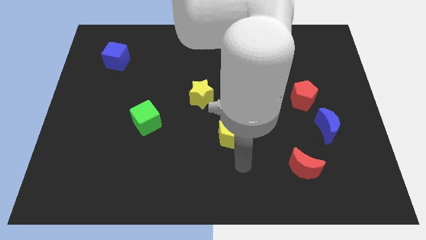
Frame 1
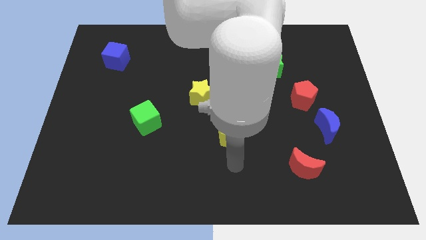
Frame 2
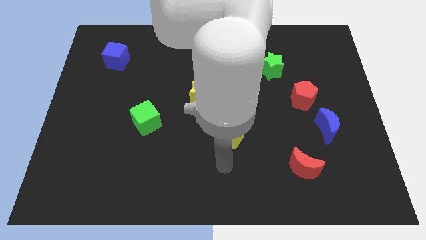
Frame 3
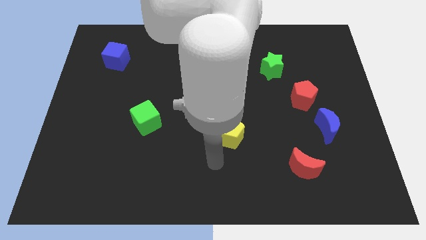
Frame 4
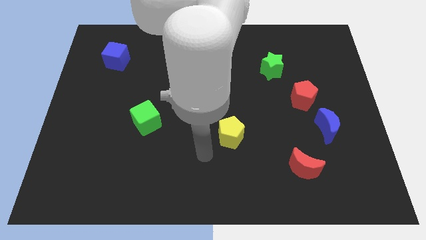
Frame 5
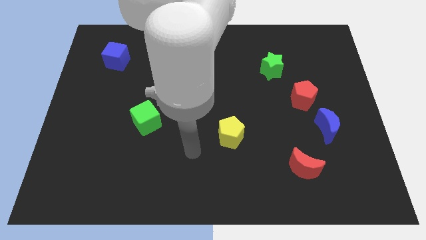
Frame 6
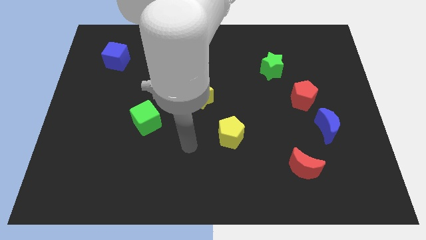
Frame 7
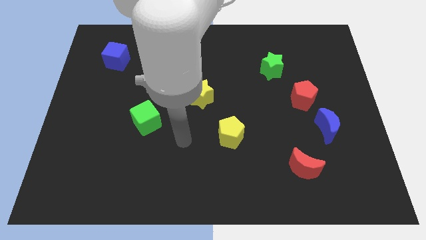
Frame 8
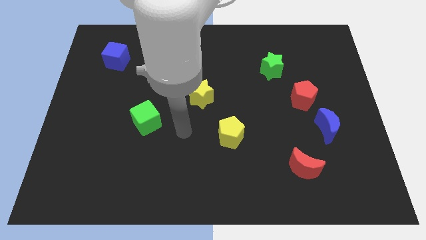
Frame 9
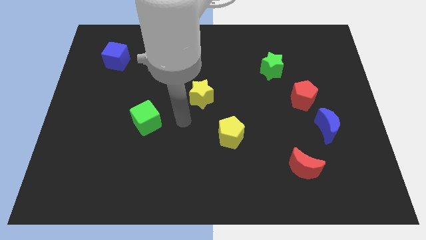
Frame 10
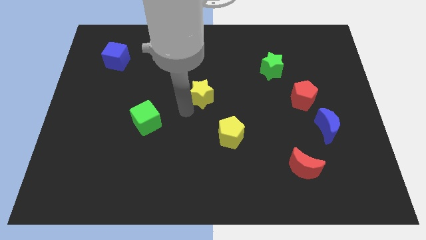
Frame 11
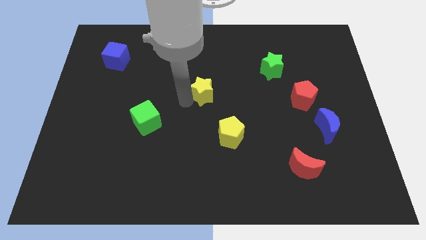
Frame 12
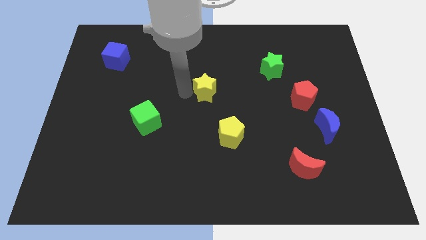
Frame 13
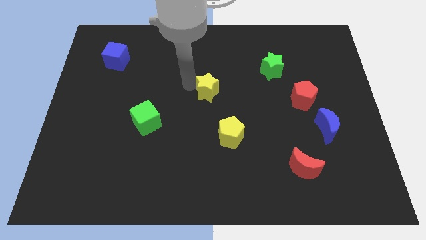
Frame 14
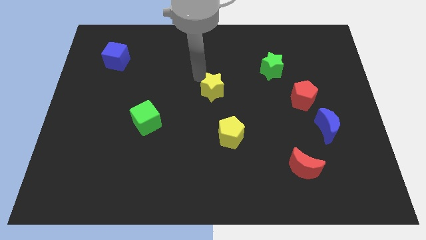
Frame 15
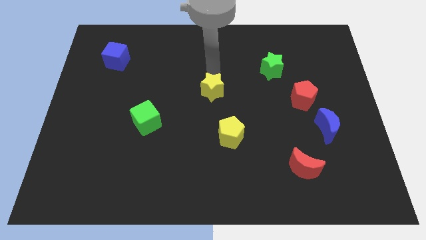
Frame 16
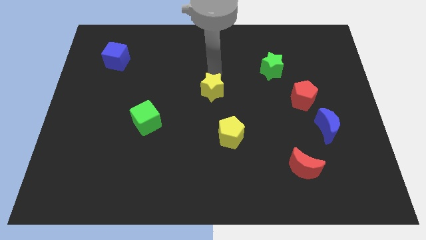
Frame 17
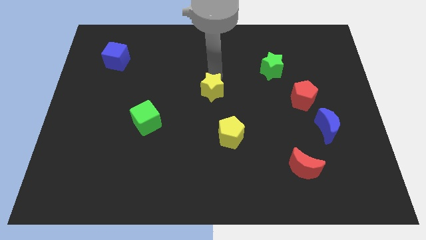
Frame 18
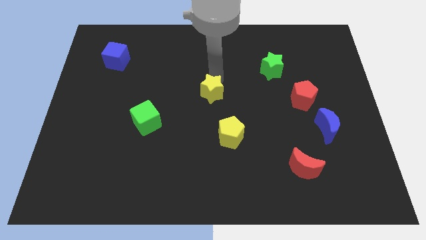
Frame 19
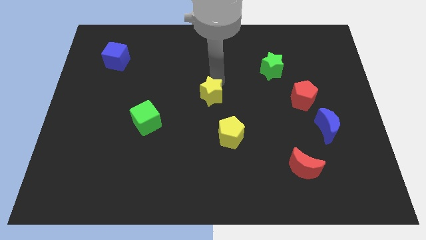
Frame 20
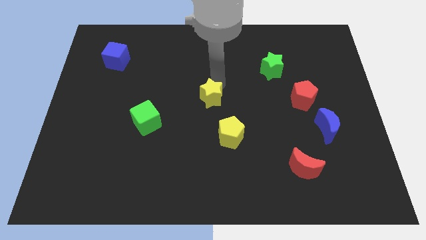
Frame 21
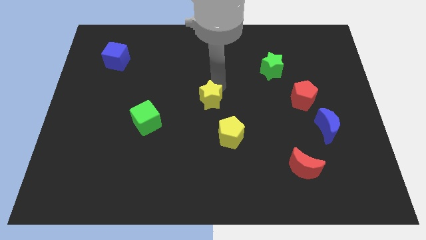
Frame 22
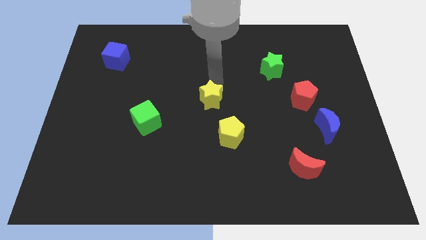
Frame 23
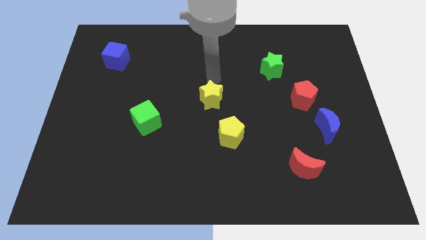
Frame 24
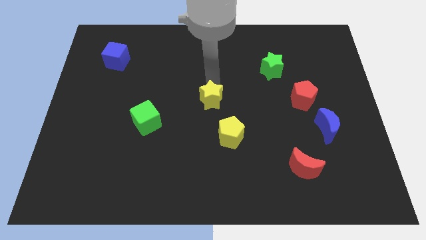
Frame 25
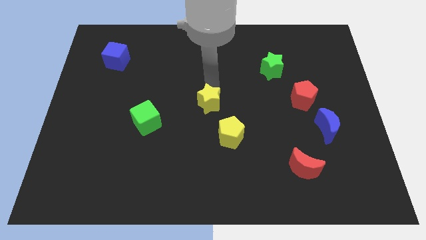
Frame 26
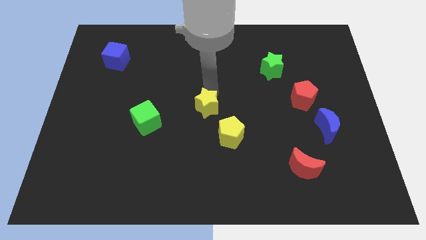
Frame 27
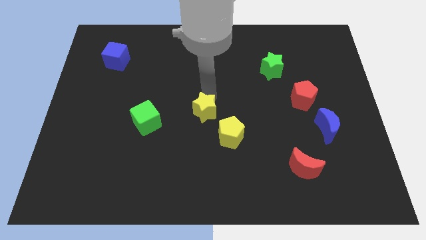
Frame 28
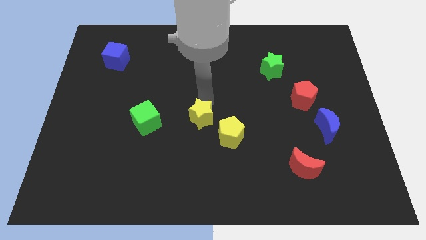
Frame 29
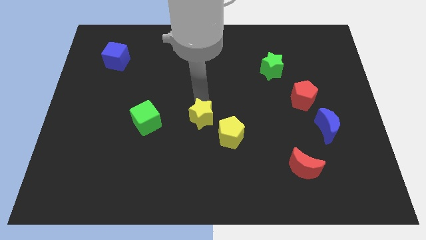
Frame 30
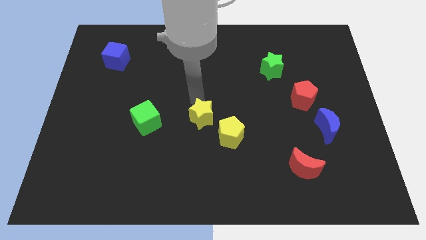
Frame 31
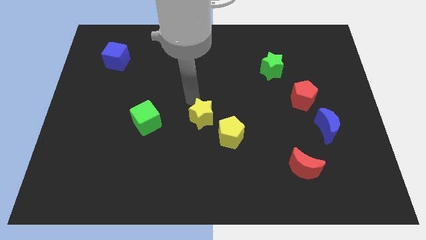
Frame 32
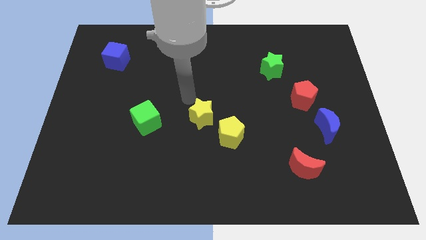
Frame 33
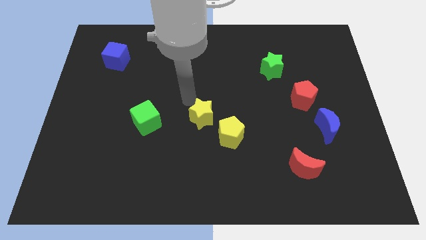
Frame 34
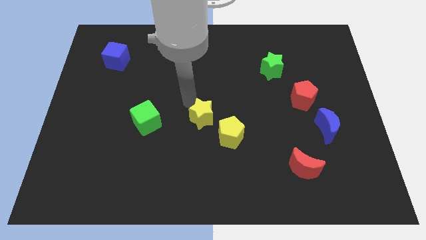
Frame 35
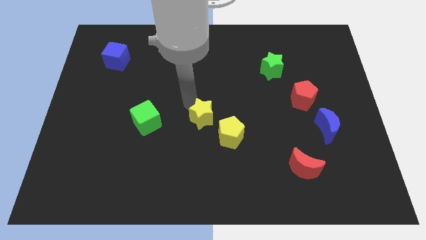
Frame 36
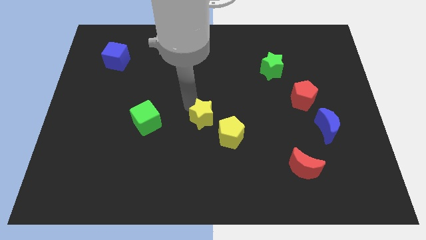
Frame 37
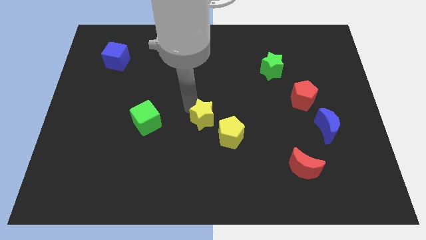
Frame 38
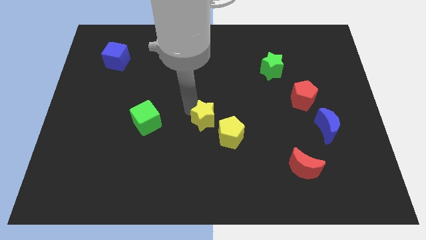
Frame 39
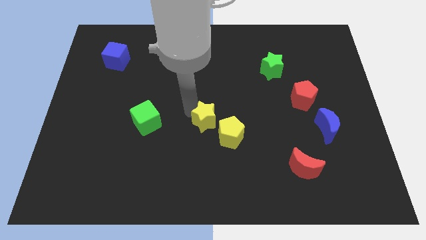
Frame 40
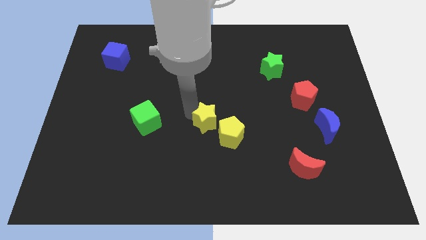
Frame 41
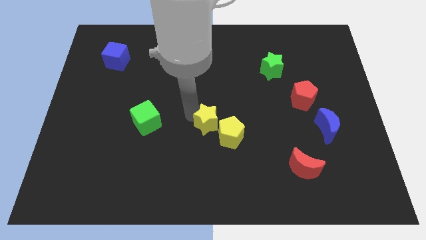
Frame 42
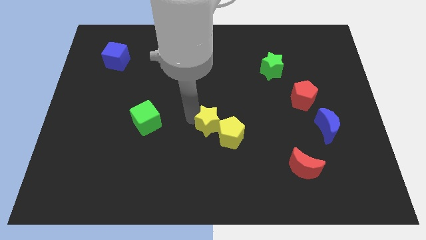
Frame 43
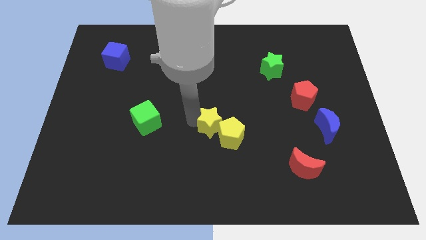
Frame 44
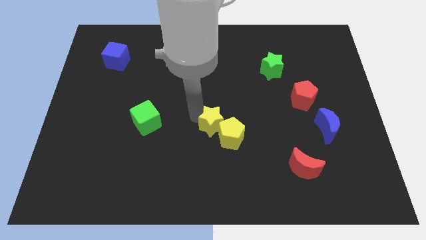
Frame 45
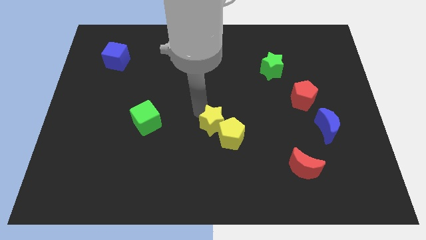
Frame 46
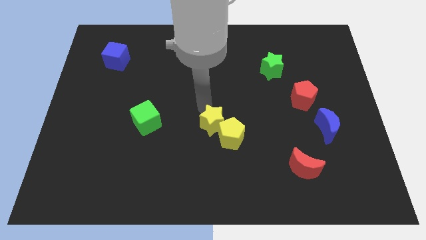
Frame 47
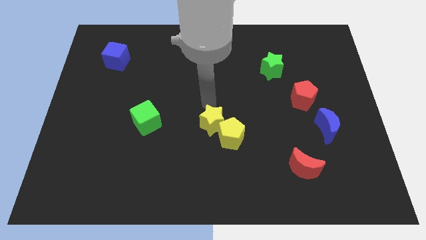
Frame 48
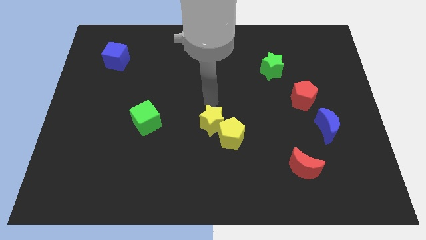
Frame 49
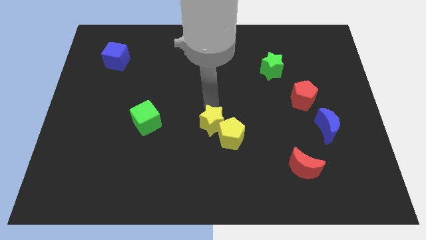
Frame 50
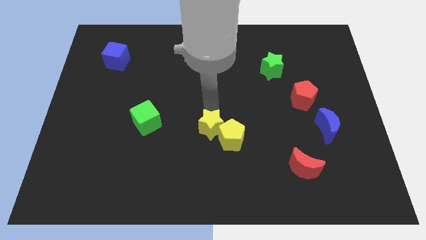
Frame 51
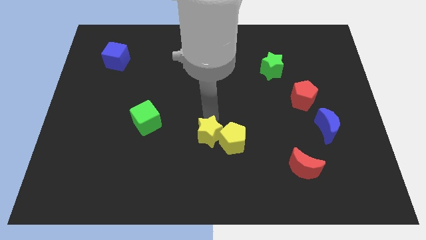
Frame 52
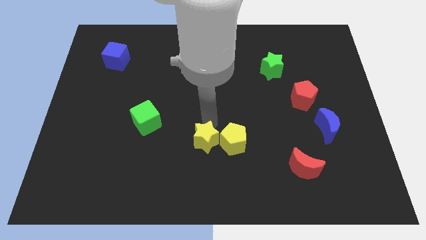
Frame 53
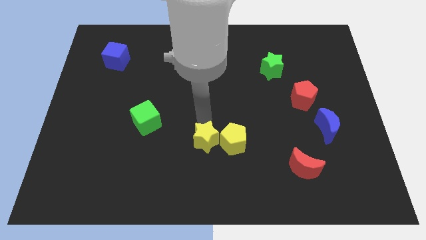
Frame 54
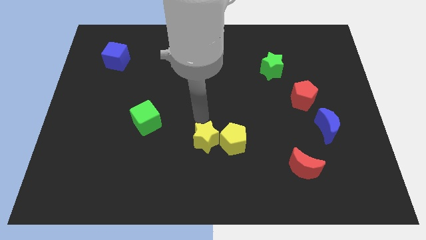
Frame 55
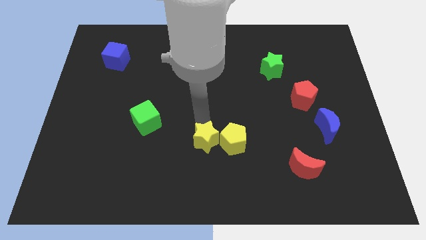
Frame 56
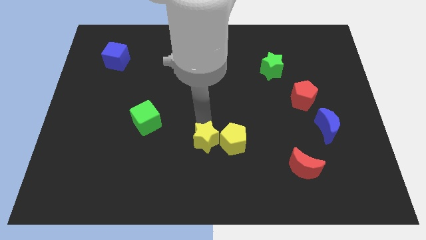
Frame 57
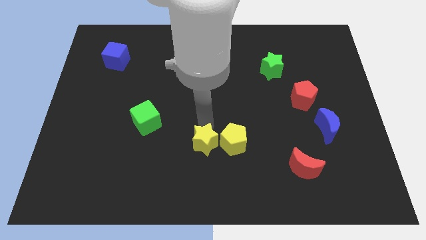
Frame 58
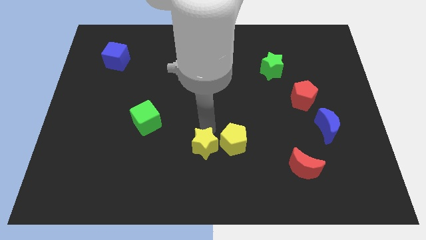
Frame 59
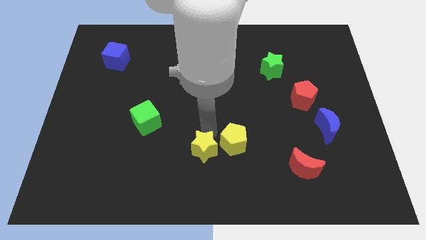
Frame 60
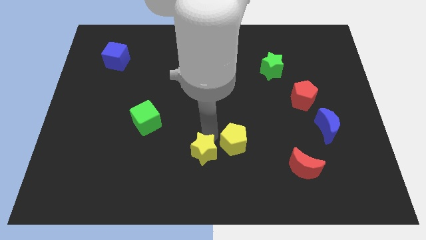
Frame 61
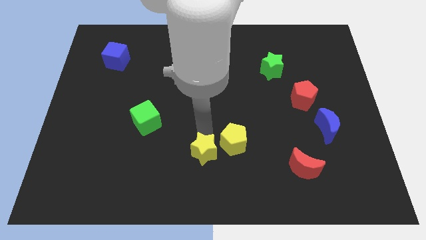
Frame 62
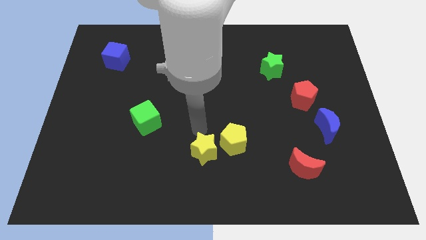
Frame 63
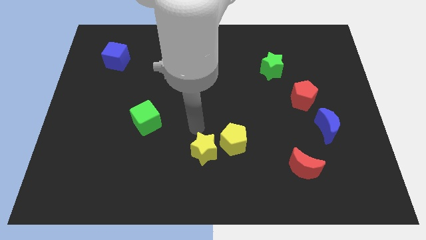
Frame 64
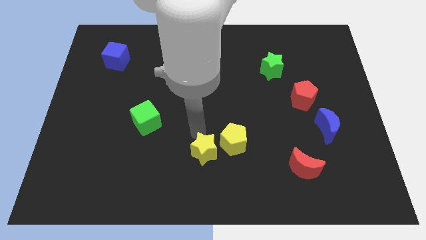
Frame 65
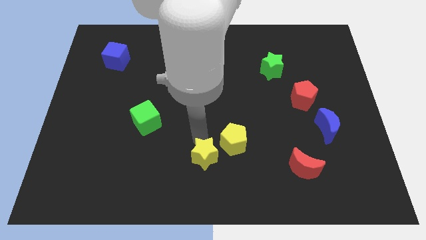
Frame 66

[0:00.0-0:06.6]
put the yellow star to the bottom side
